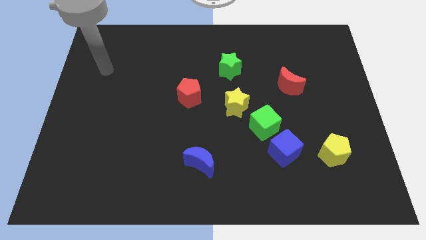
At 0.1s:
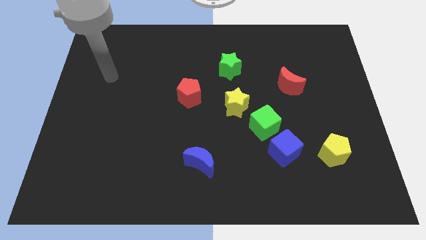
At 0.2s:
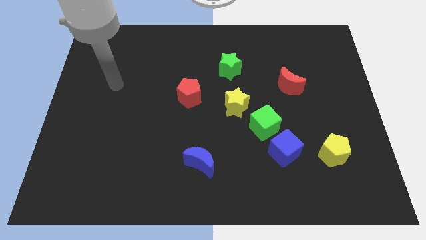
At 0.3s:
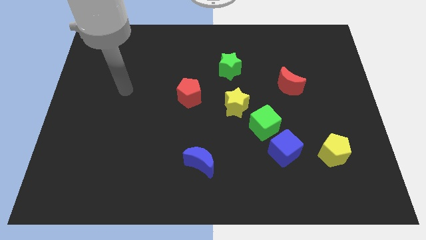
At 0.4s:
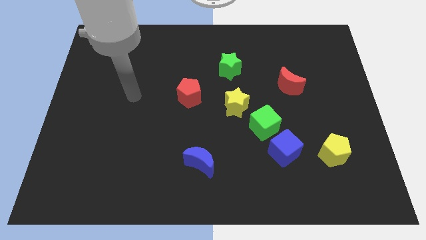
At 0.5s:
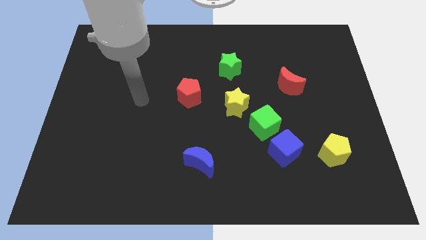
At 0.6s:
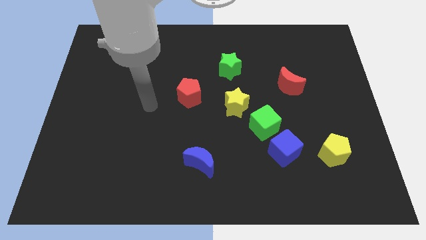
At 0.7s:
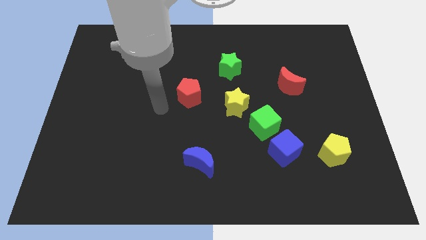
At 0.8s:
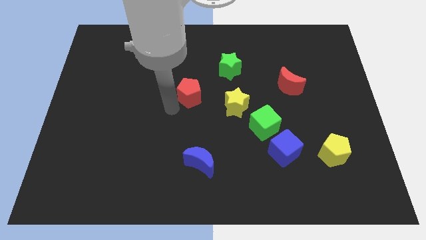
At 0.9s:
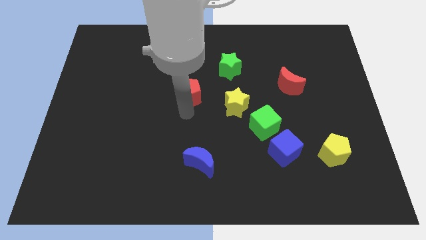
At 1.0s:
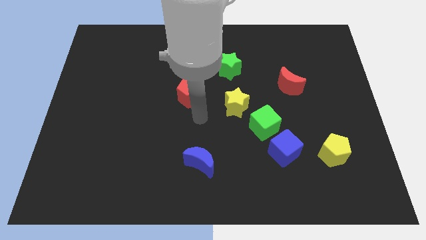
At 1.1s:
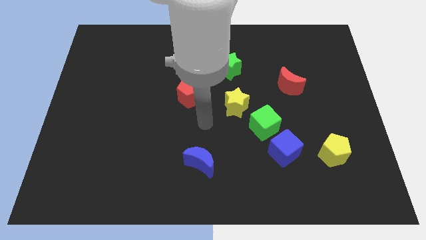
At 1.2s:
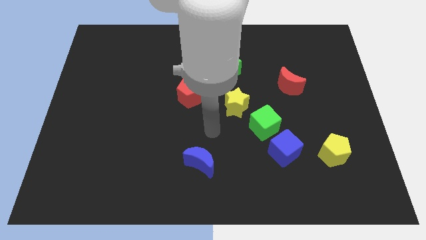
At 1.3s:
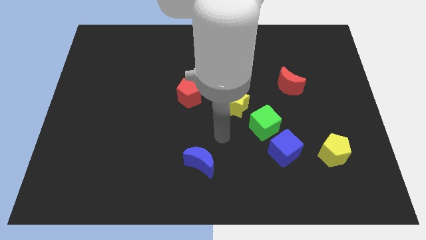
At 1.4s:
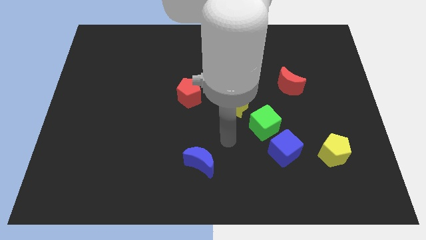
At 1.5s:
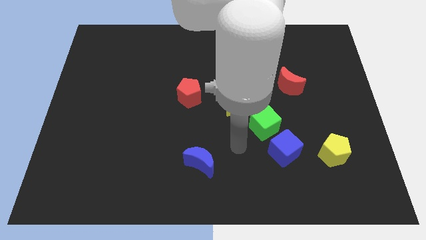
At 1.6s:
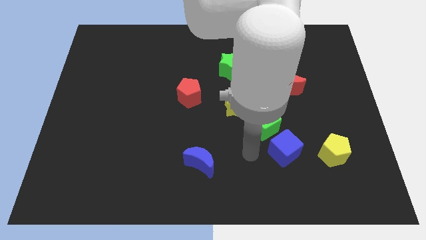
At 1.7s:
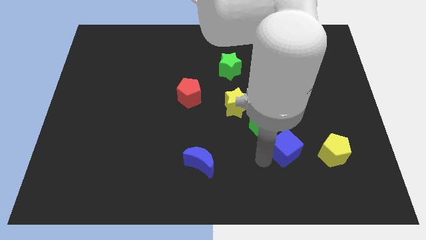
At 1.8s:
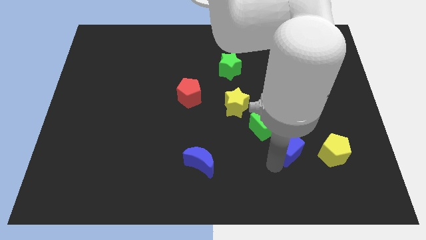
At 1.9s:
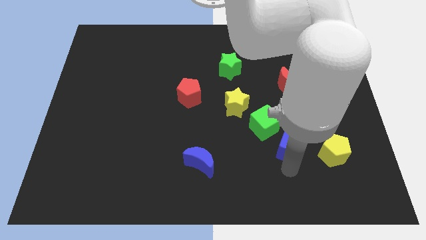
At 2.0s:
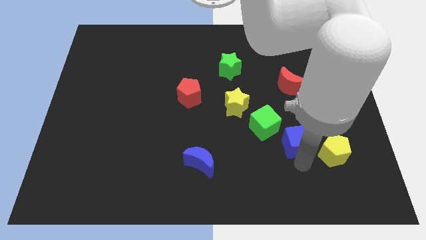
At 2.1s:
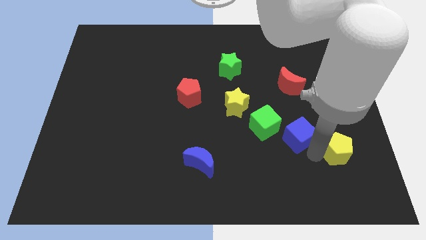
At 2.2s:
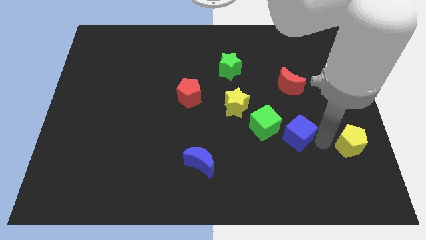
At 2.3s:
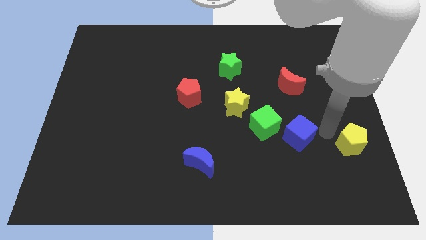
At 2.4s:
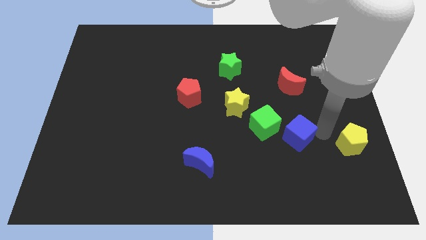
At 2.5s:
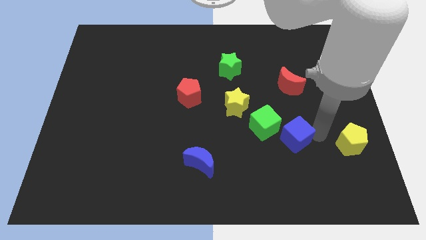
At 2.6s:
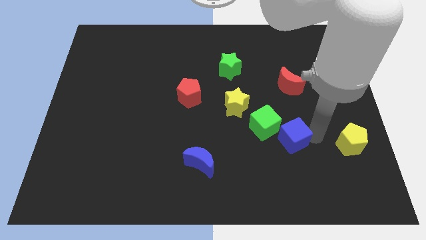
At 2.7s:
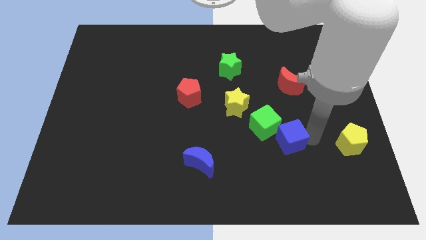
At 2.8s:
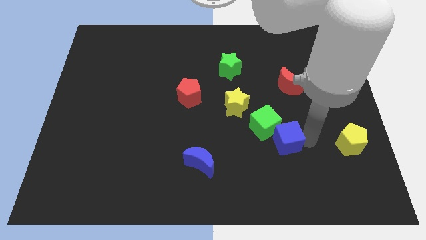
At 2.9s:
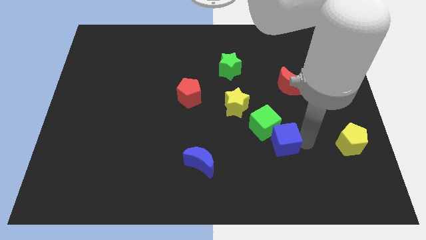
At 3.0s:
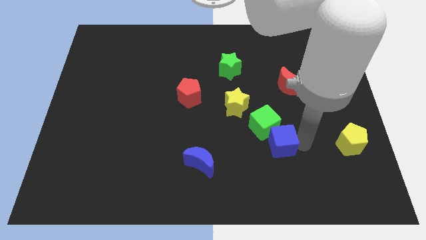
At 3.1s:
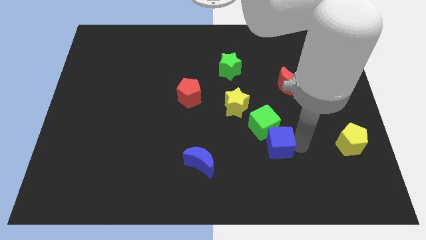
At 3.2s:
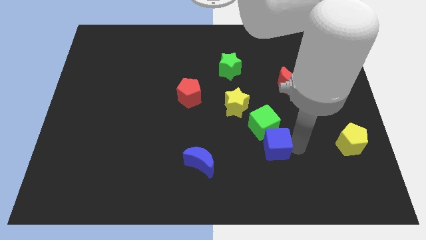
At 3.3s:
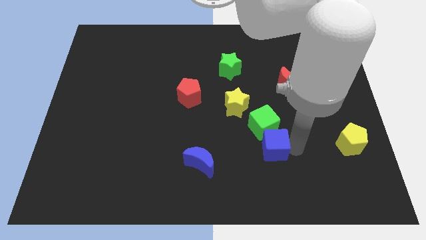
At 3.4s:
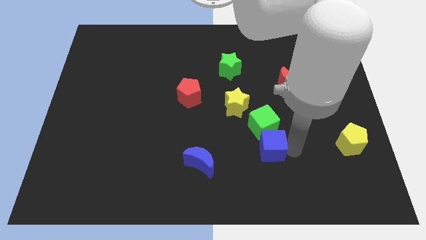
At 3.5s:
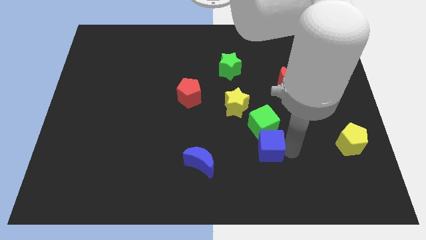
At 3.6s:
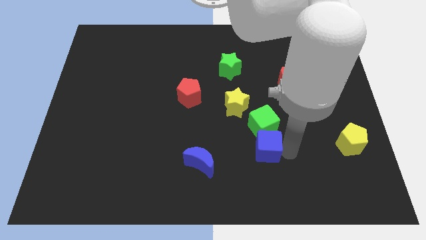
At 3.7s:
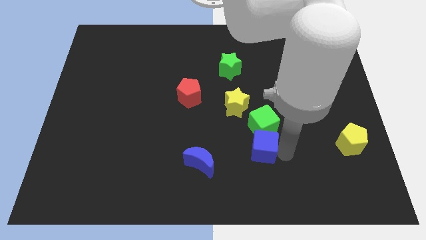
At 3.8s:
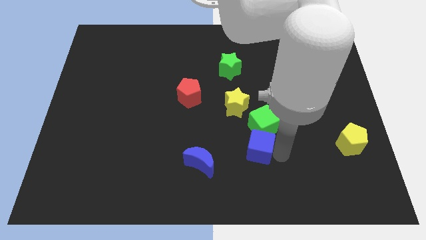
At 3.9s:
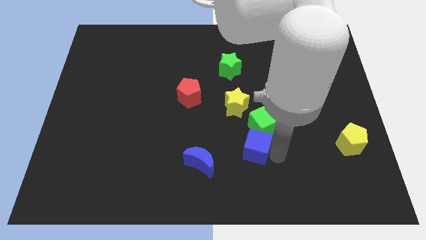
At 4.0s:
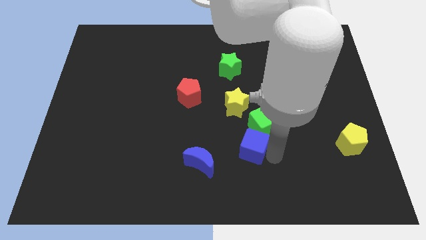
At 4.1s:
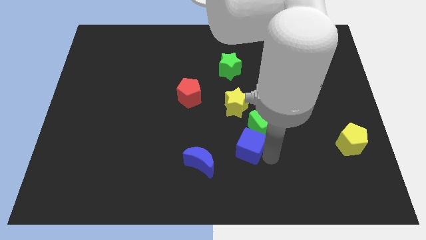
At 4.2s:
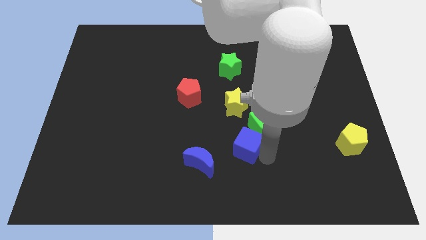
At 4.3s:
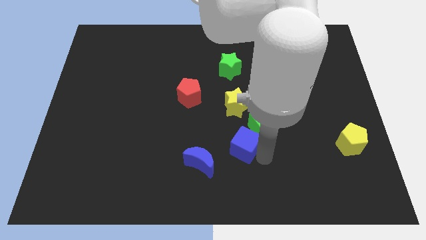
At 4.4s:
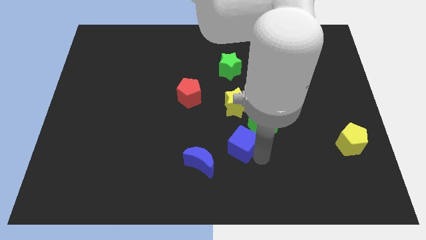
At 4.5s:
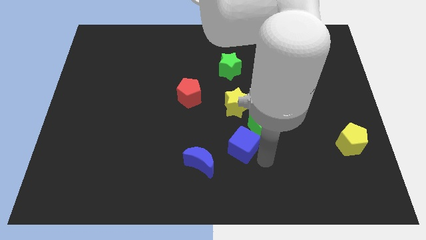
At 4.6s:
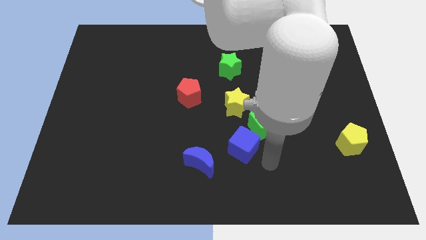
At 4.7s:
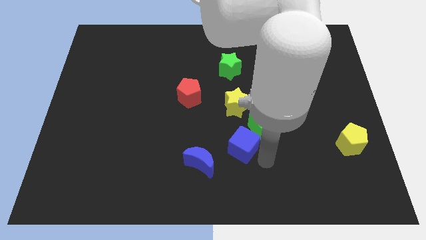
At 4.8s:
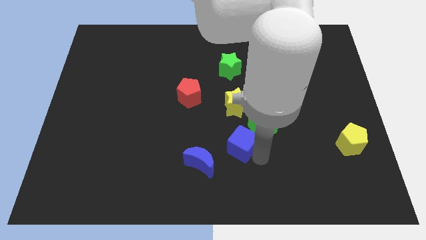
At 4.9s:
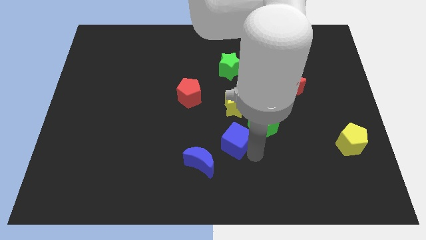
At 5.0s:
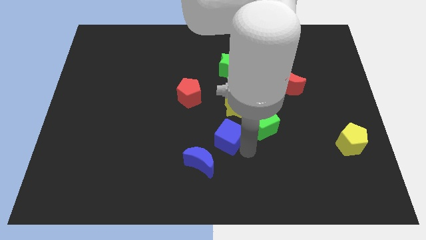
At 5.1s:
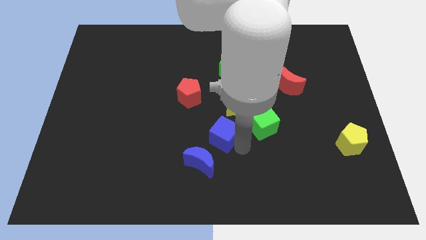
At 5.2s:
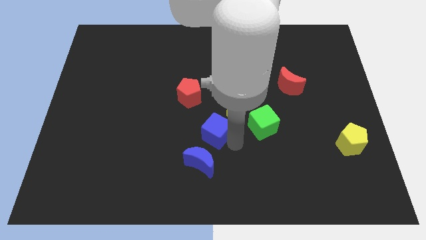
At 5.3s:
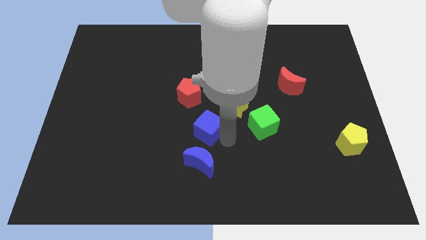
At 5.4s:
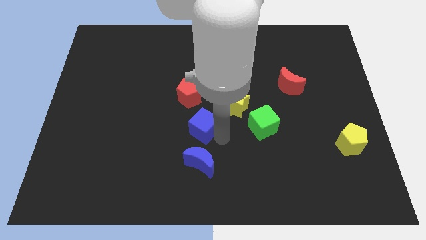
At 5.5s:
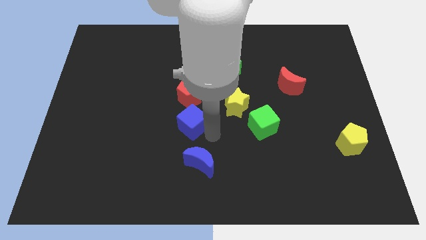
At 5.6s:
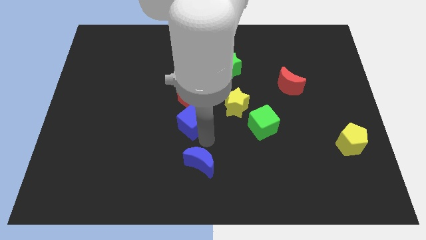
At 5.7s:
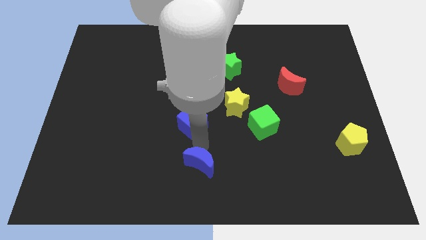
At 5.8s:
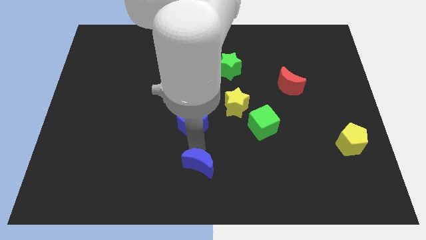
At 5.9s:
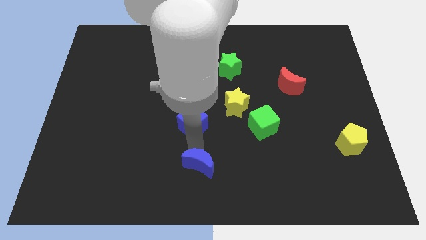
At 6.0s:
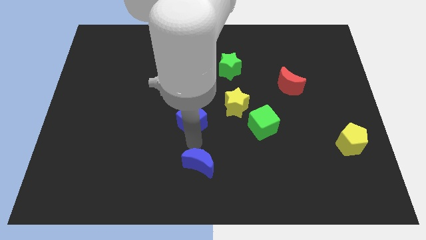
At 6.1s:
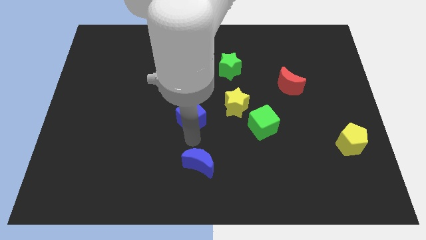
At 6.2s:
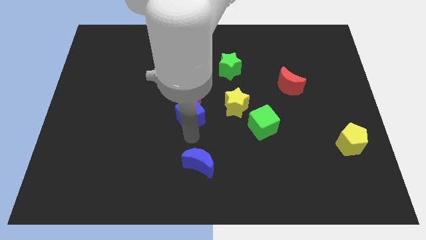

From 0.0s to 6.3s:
put the blue cube close to the red pentagon
